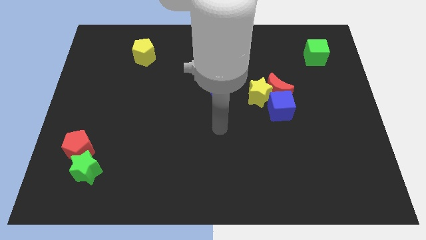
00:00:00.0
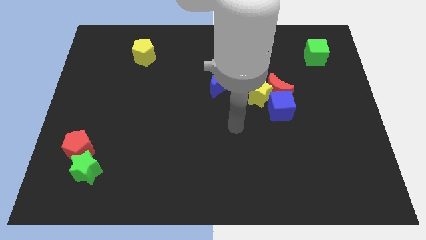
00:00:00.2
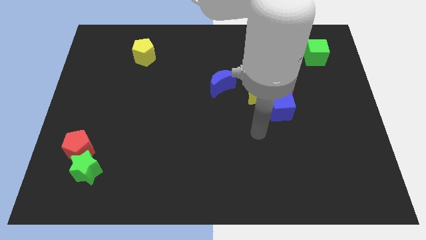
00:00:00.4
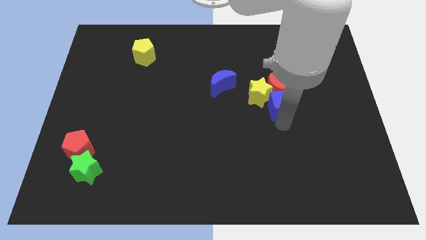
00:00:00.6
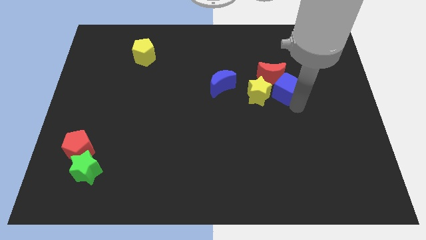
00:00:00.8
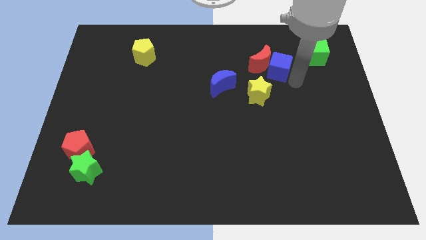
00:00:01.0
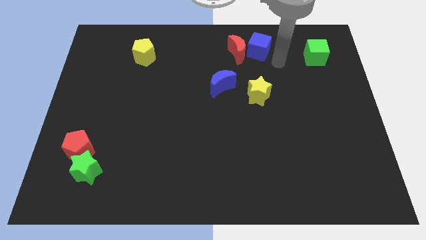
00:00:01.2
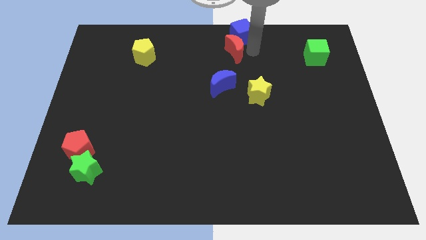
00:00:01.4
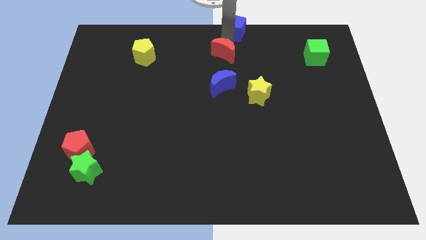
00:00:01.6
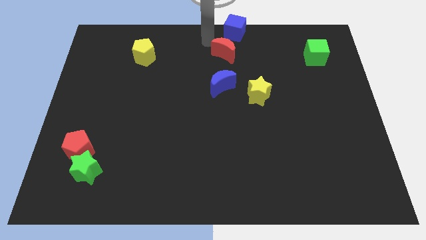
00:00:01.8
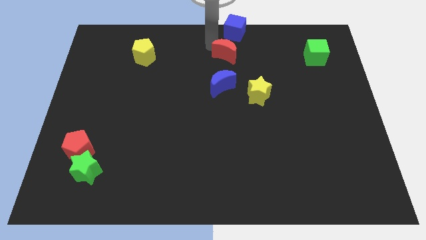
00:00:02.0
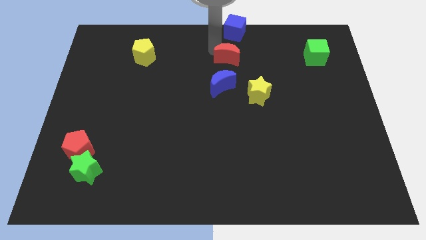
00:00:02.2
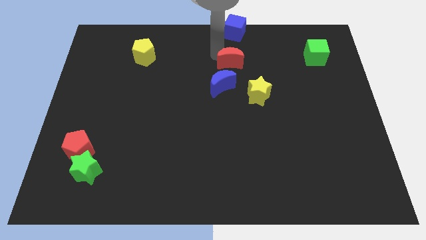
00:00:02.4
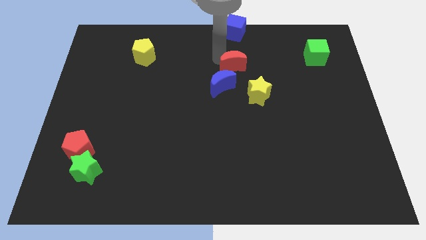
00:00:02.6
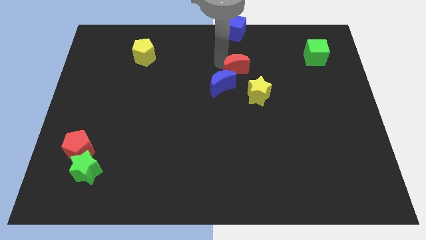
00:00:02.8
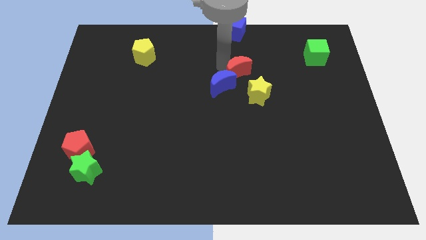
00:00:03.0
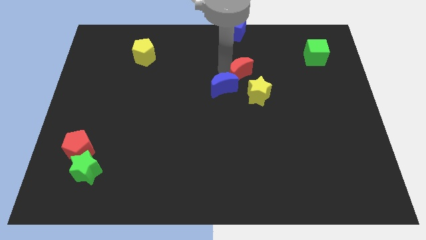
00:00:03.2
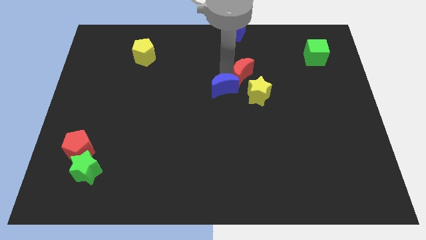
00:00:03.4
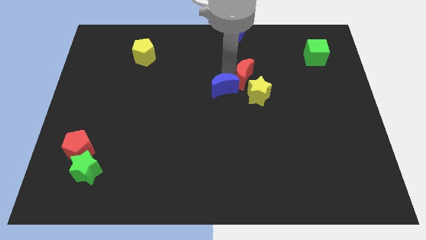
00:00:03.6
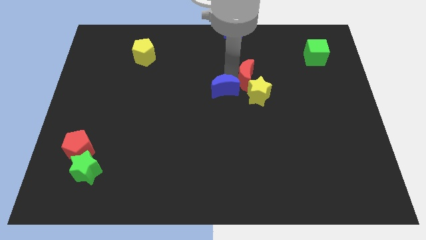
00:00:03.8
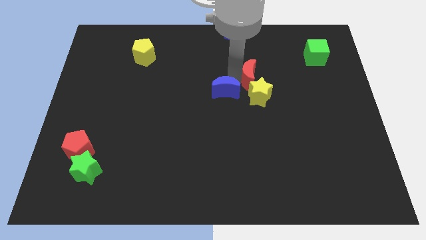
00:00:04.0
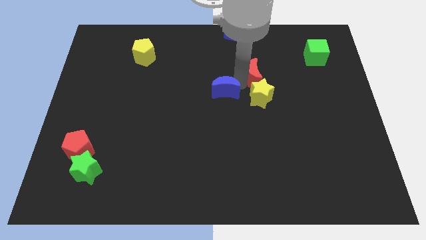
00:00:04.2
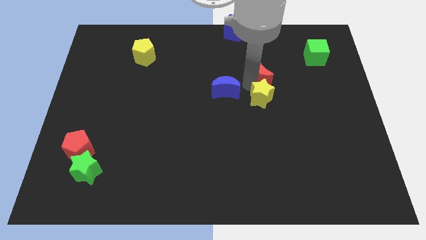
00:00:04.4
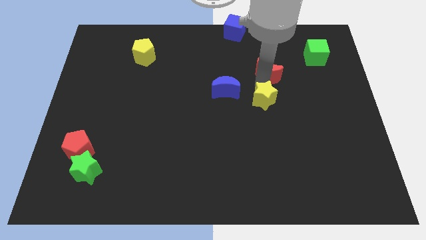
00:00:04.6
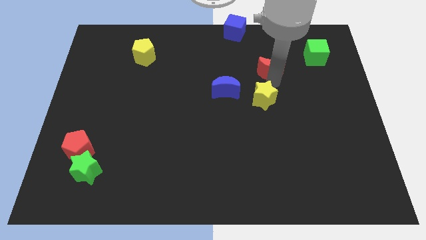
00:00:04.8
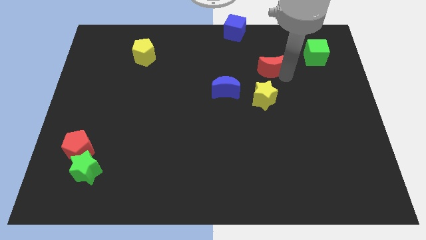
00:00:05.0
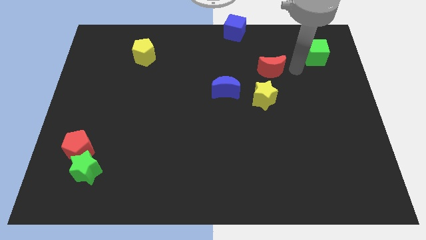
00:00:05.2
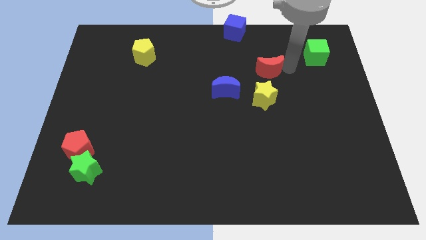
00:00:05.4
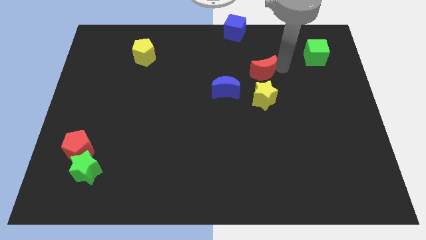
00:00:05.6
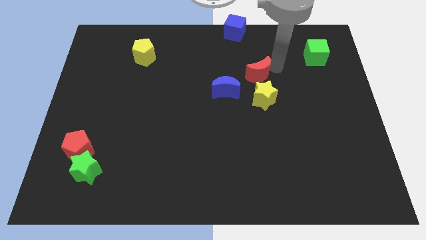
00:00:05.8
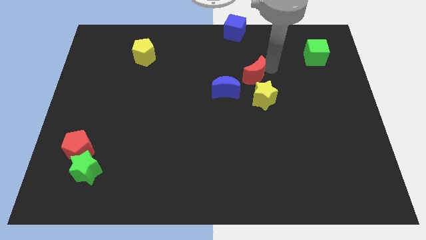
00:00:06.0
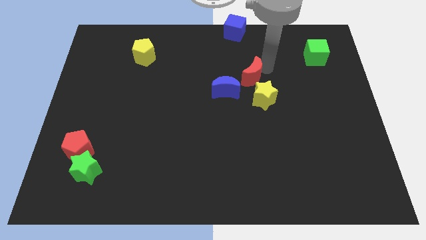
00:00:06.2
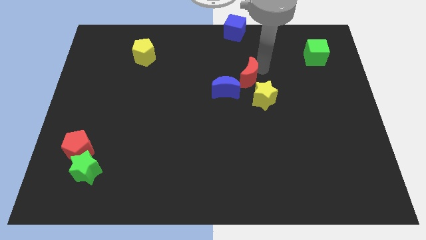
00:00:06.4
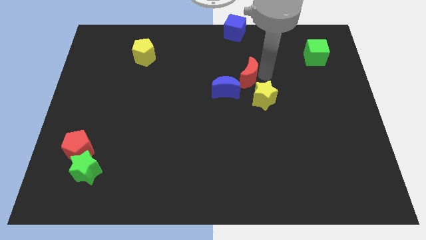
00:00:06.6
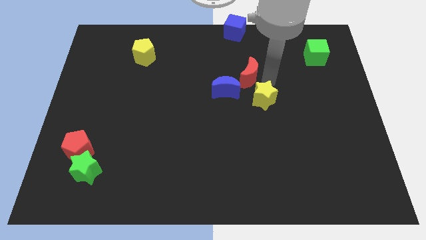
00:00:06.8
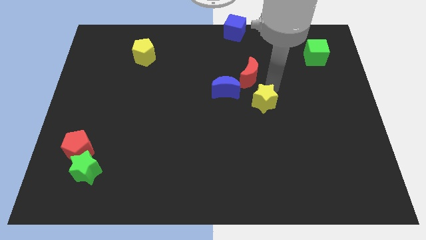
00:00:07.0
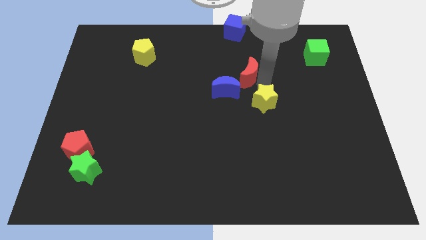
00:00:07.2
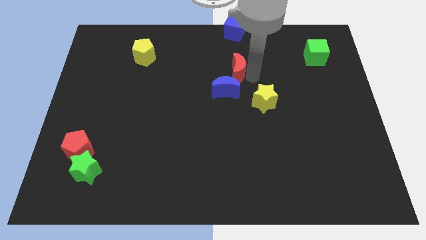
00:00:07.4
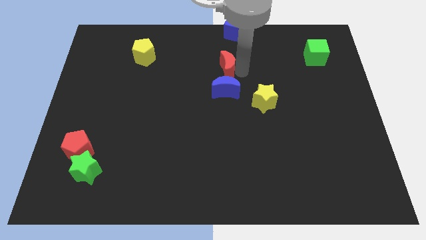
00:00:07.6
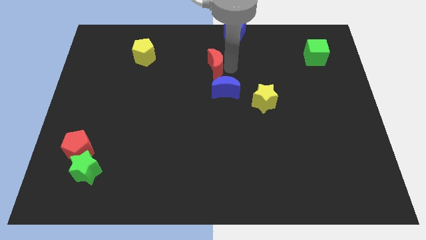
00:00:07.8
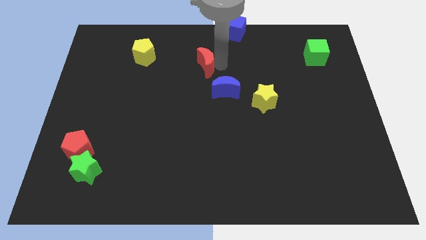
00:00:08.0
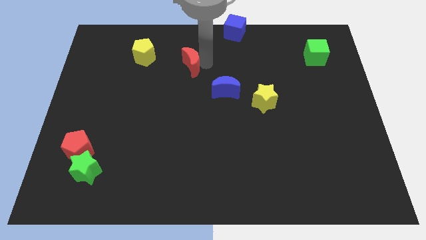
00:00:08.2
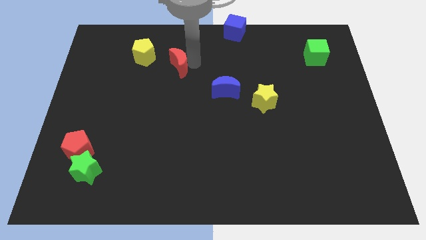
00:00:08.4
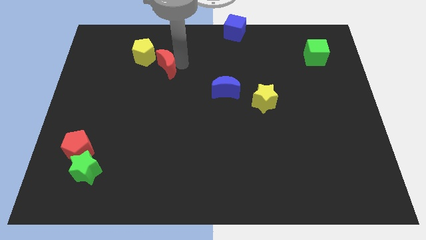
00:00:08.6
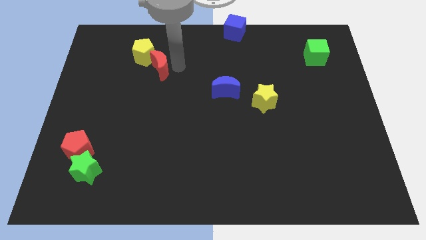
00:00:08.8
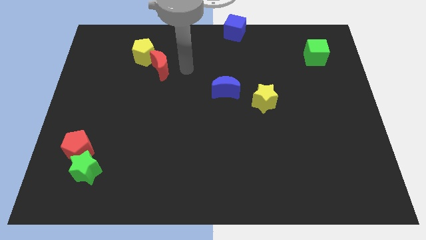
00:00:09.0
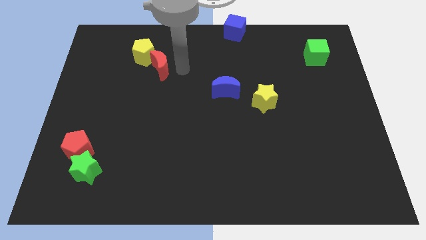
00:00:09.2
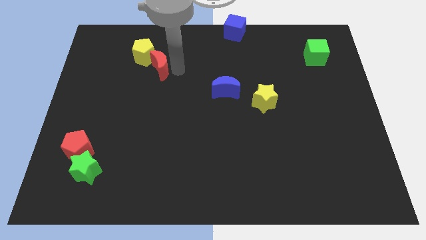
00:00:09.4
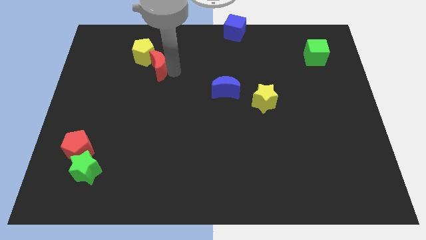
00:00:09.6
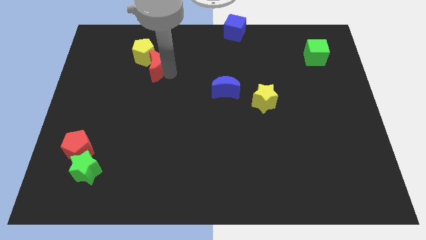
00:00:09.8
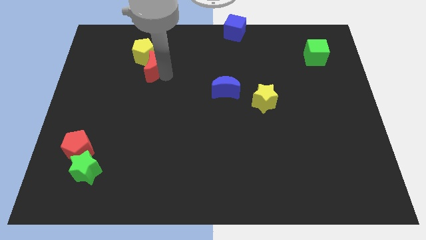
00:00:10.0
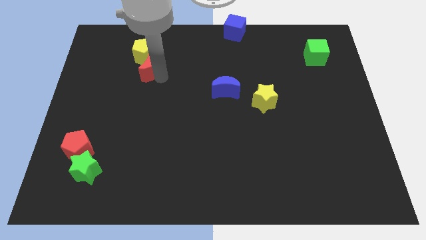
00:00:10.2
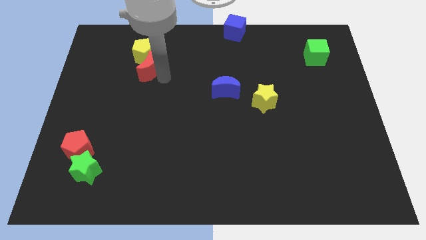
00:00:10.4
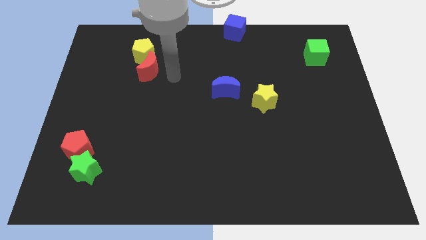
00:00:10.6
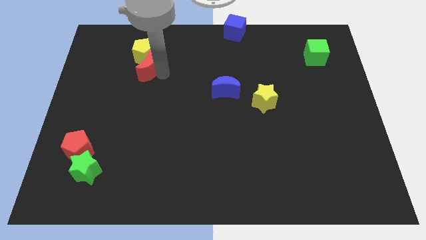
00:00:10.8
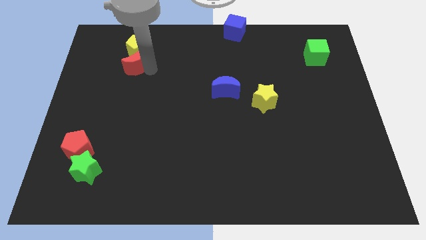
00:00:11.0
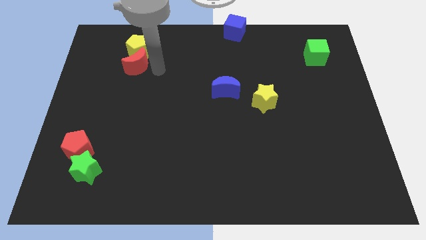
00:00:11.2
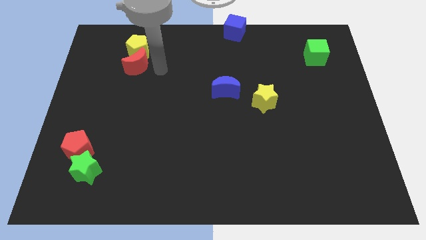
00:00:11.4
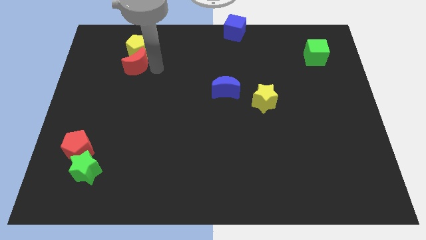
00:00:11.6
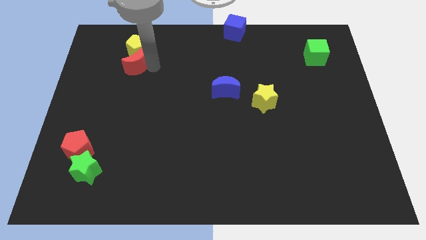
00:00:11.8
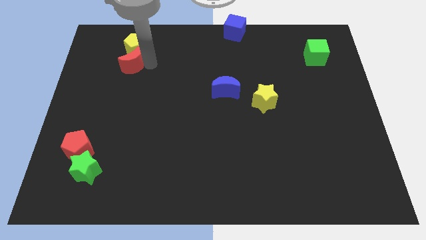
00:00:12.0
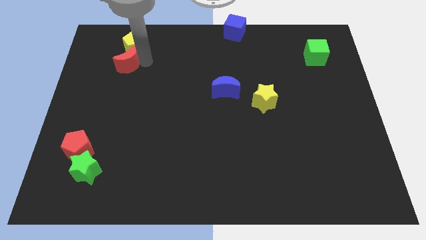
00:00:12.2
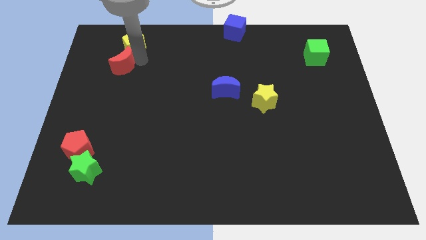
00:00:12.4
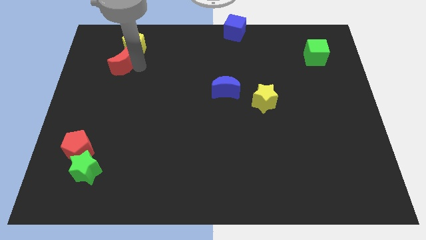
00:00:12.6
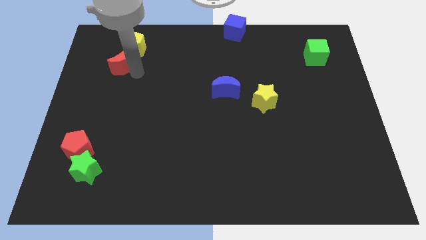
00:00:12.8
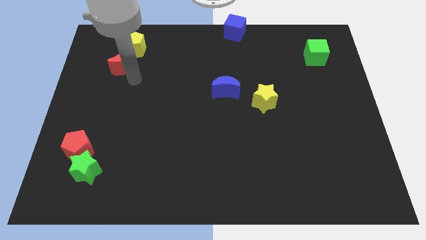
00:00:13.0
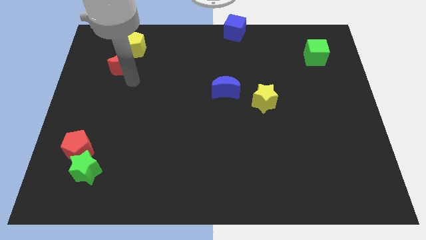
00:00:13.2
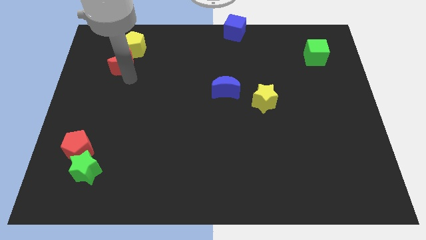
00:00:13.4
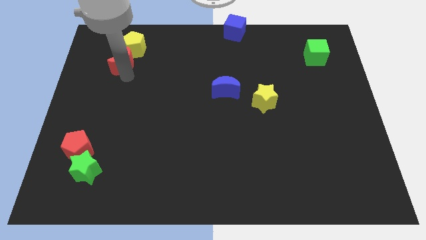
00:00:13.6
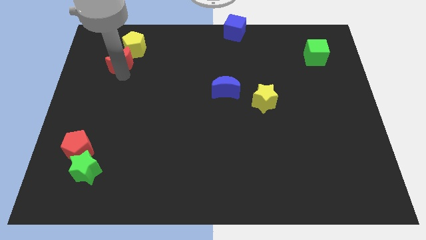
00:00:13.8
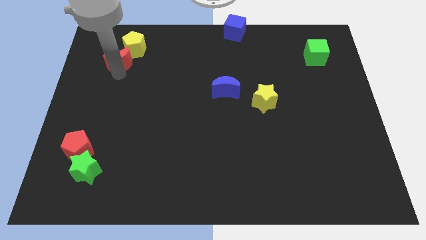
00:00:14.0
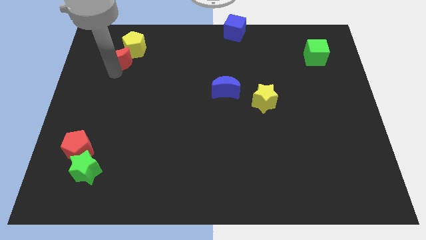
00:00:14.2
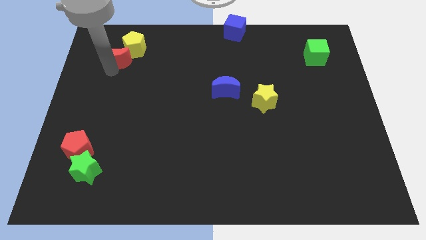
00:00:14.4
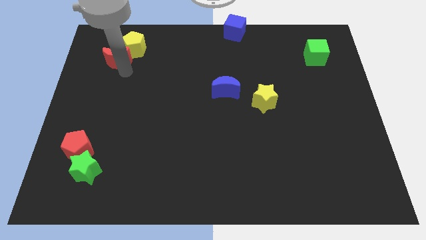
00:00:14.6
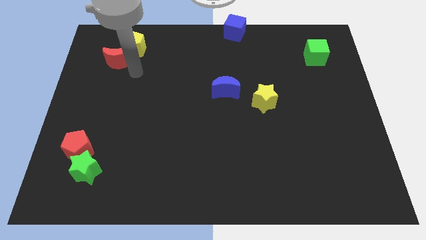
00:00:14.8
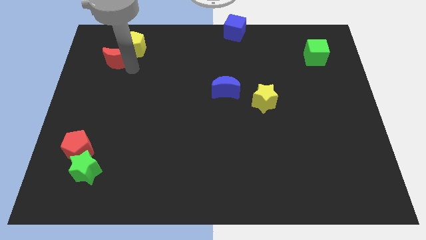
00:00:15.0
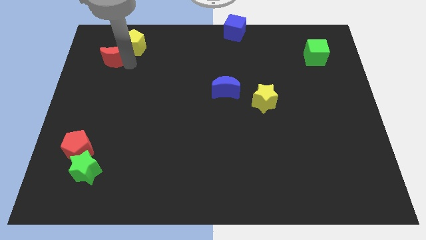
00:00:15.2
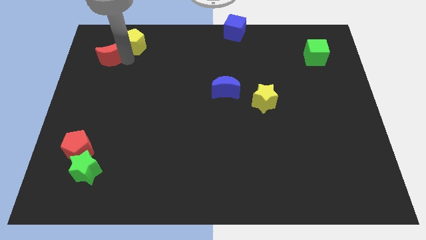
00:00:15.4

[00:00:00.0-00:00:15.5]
move the red moon to the left of the yellow pentagon
